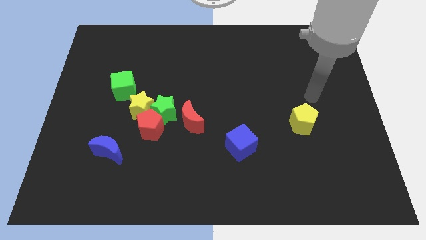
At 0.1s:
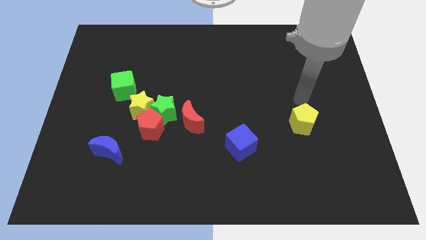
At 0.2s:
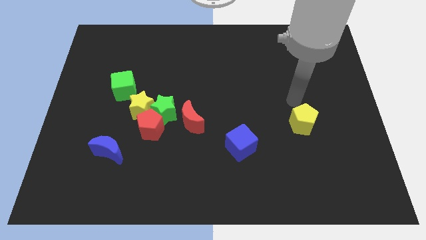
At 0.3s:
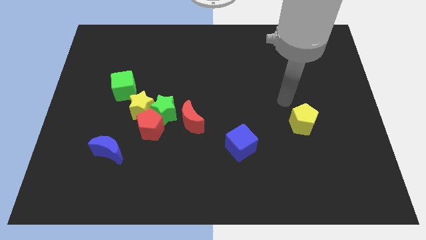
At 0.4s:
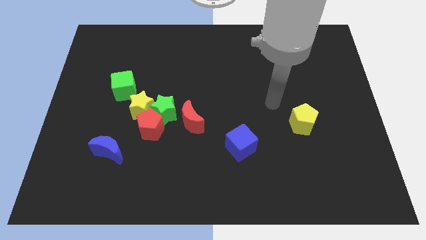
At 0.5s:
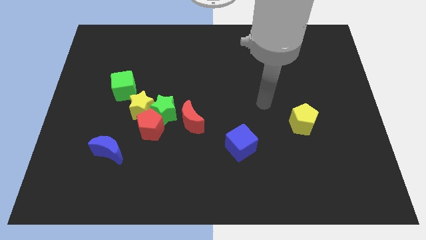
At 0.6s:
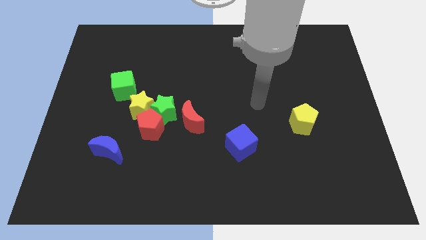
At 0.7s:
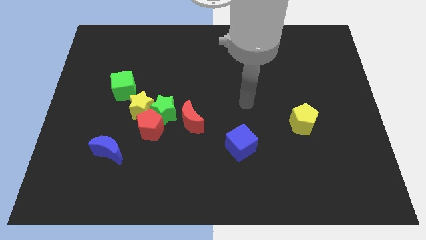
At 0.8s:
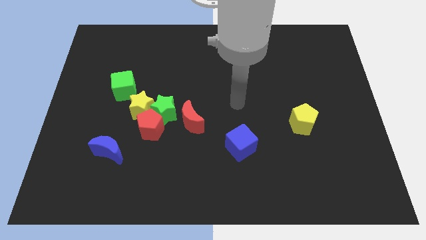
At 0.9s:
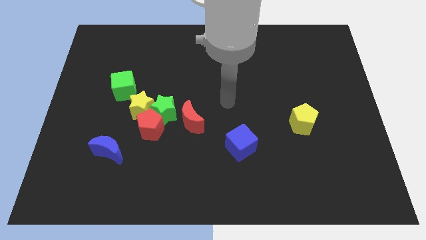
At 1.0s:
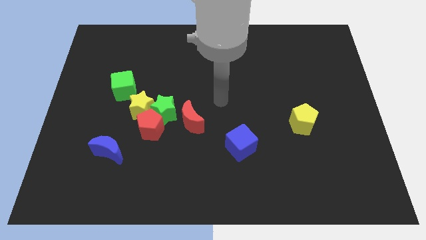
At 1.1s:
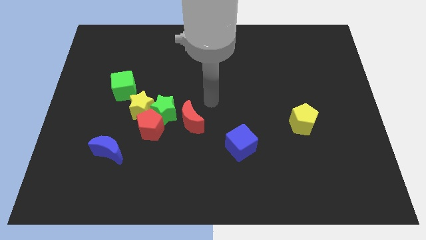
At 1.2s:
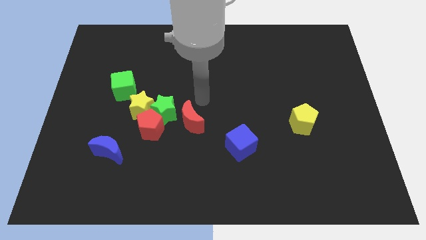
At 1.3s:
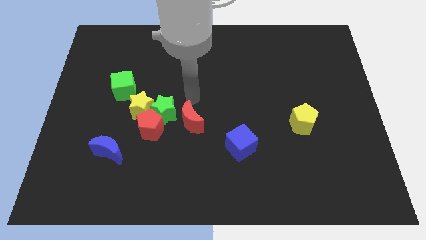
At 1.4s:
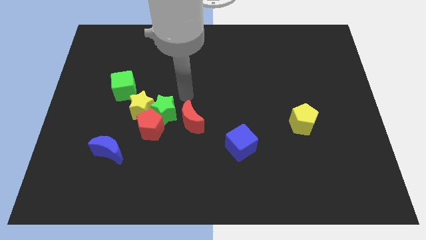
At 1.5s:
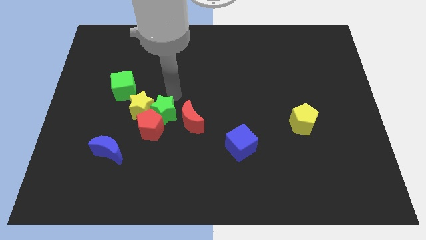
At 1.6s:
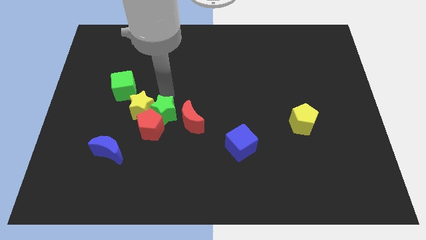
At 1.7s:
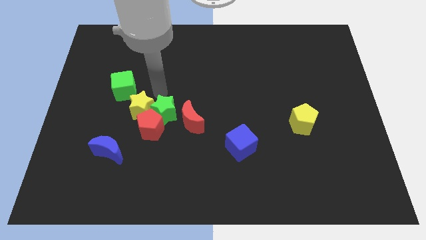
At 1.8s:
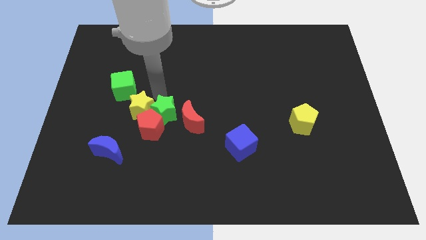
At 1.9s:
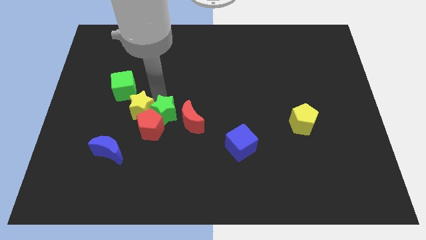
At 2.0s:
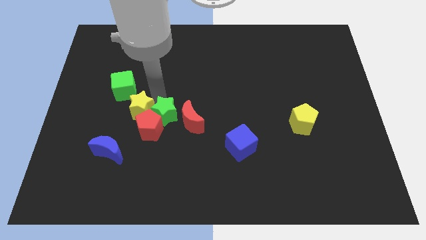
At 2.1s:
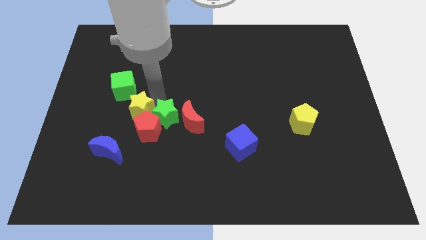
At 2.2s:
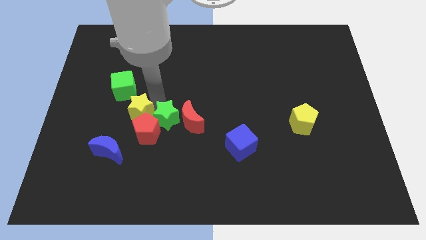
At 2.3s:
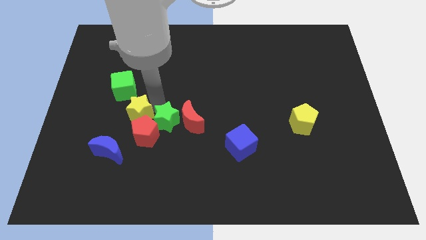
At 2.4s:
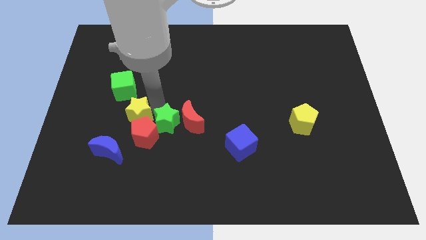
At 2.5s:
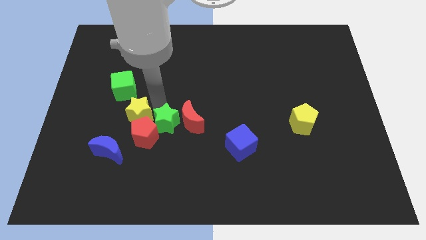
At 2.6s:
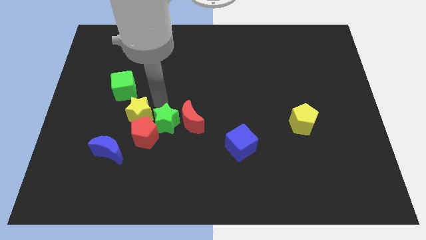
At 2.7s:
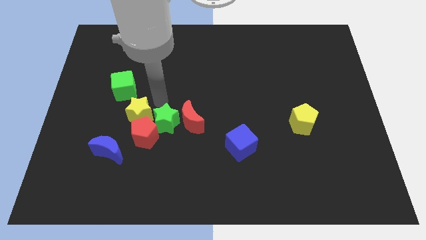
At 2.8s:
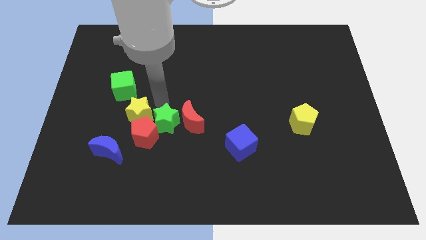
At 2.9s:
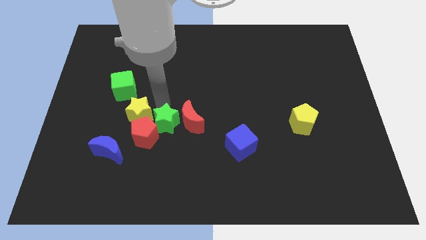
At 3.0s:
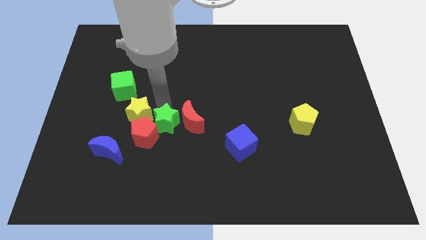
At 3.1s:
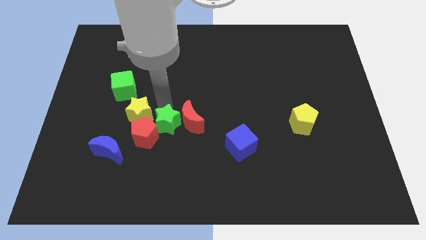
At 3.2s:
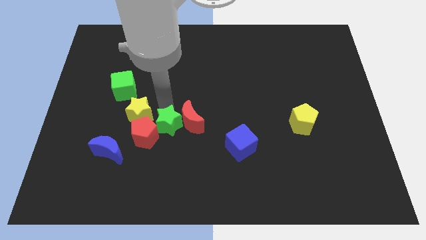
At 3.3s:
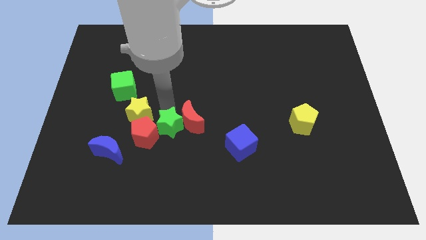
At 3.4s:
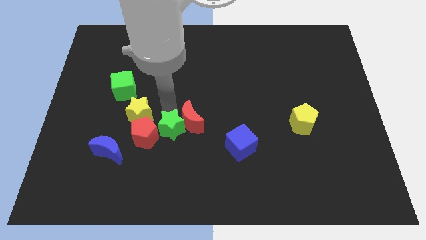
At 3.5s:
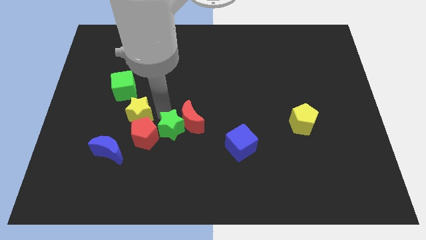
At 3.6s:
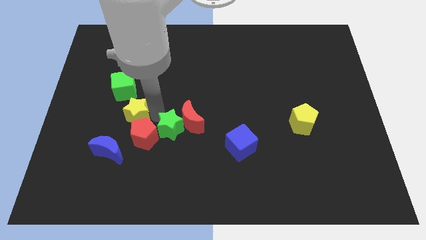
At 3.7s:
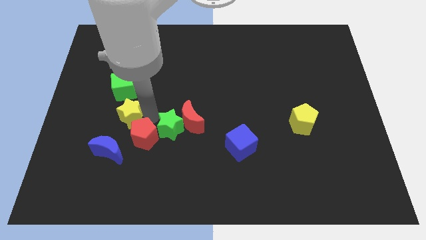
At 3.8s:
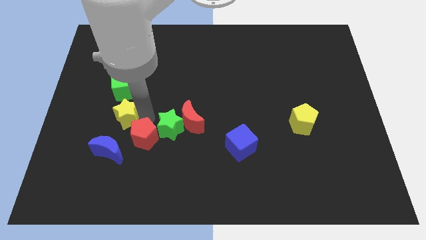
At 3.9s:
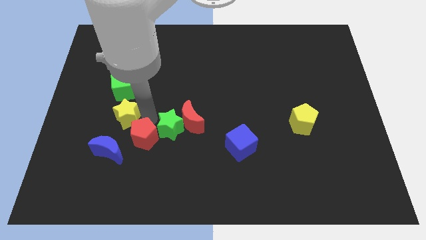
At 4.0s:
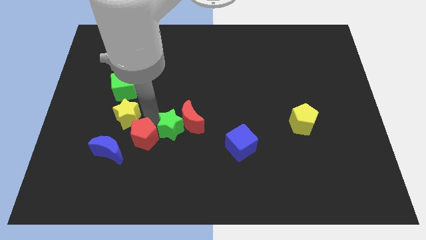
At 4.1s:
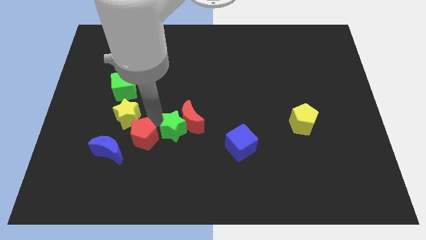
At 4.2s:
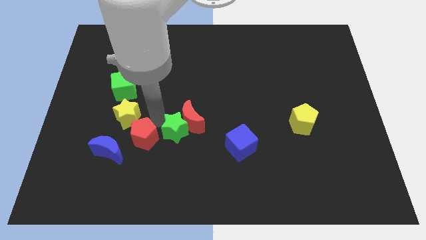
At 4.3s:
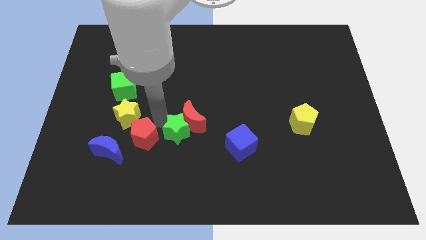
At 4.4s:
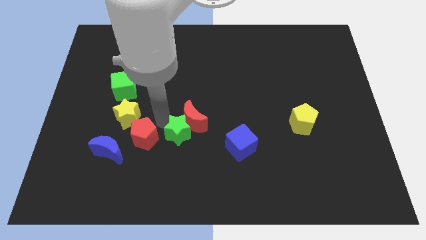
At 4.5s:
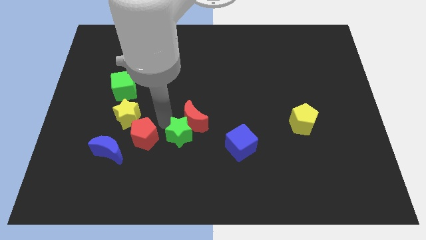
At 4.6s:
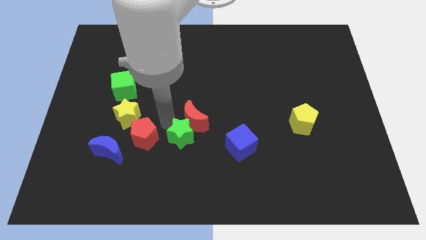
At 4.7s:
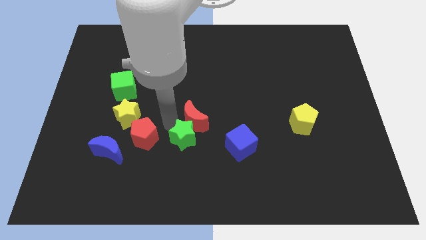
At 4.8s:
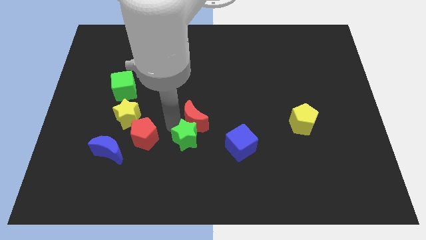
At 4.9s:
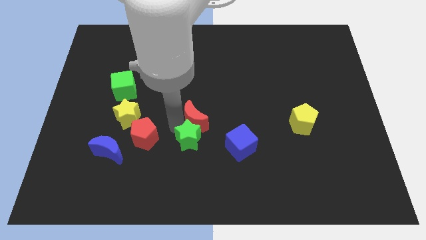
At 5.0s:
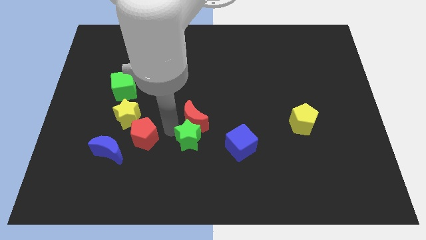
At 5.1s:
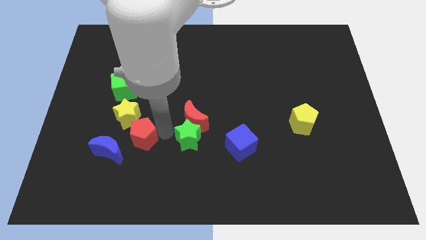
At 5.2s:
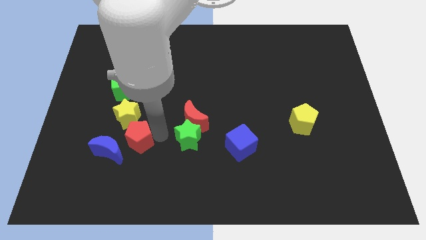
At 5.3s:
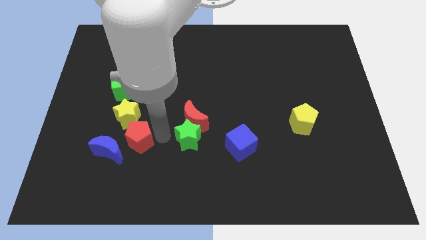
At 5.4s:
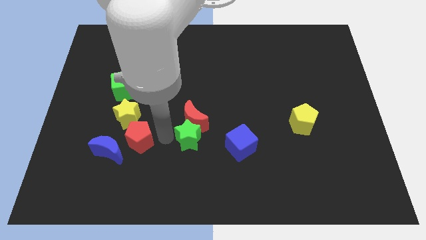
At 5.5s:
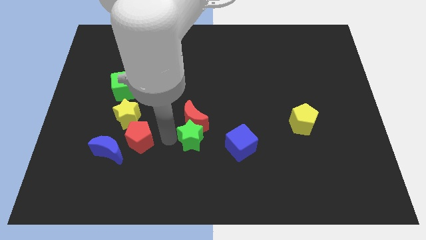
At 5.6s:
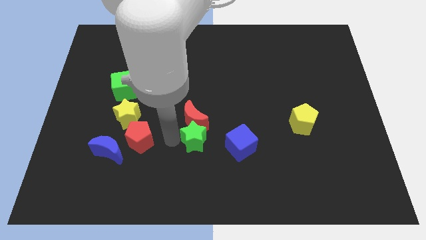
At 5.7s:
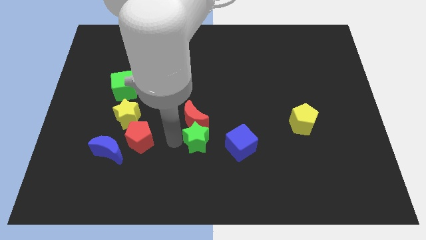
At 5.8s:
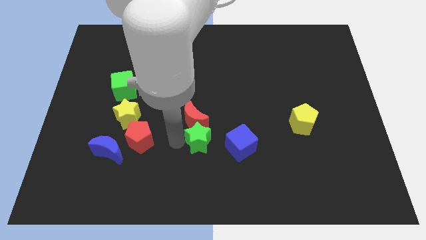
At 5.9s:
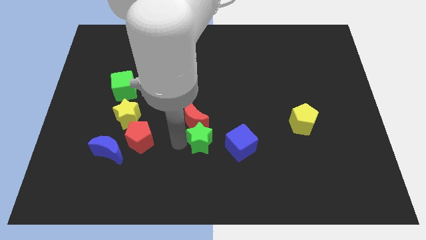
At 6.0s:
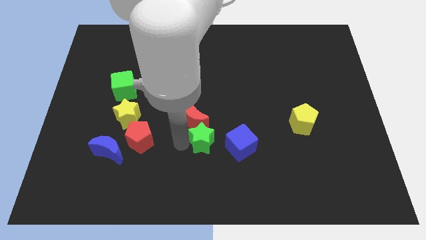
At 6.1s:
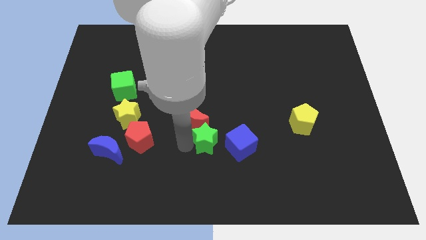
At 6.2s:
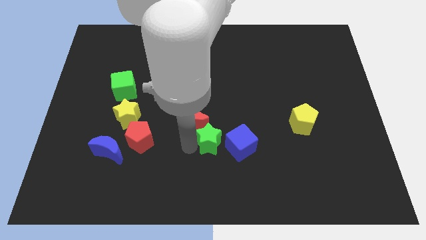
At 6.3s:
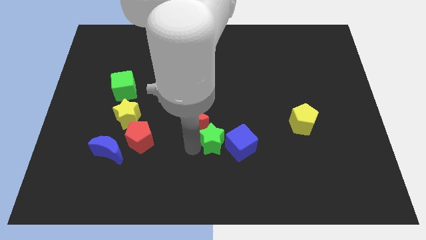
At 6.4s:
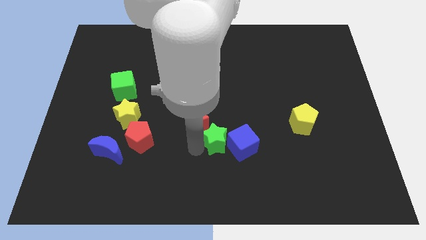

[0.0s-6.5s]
slide the green star towards the blue cube

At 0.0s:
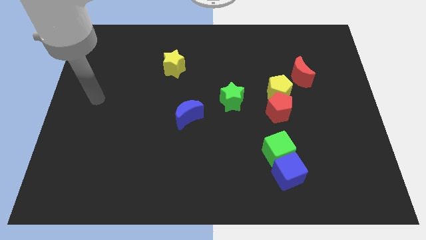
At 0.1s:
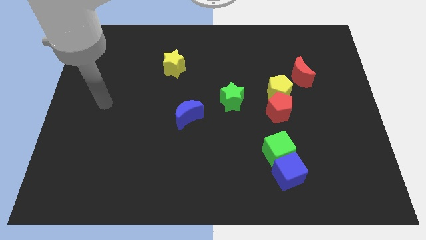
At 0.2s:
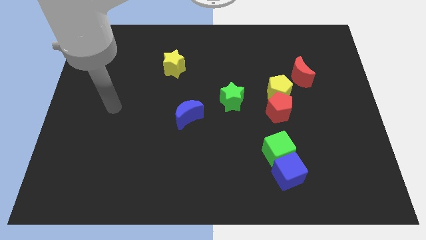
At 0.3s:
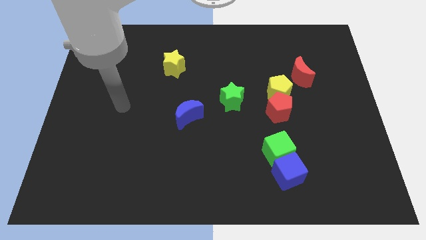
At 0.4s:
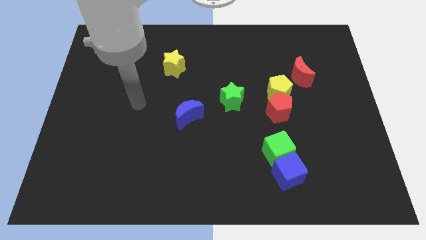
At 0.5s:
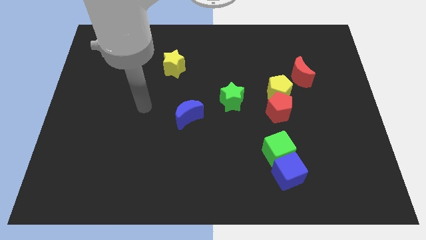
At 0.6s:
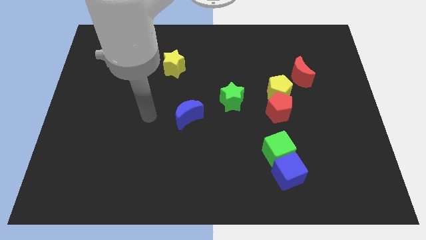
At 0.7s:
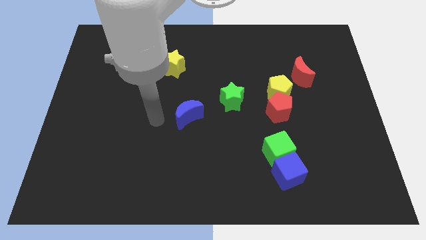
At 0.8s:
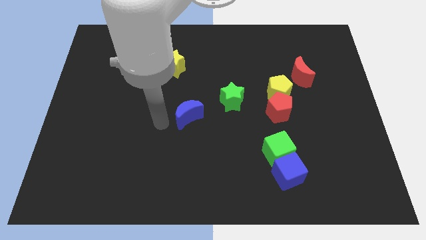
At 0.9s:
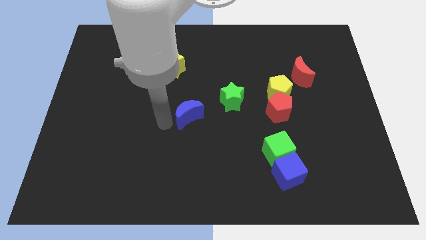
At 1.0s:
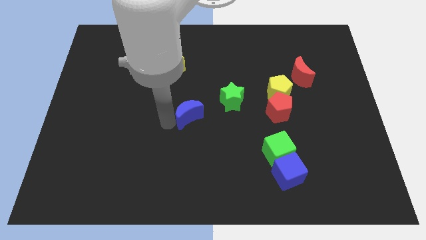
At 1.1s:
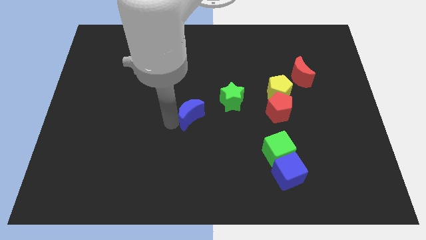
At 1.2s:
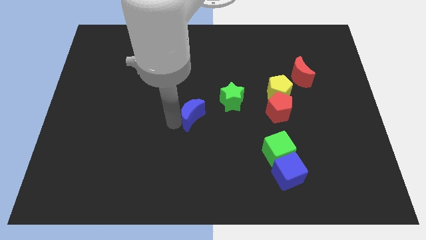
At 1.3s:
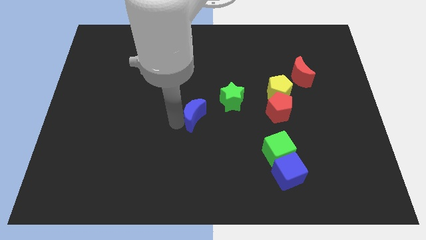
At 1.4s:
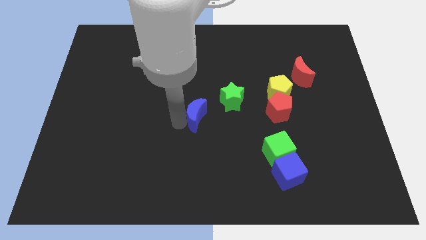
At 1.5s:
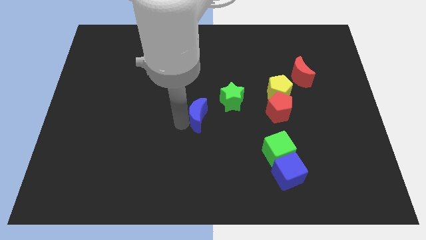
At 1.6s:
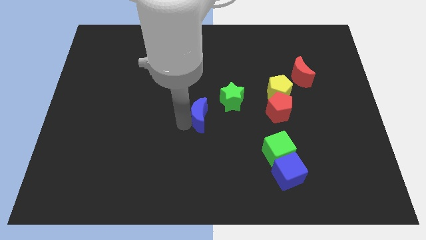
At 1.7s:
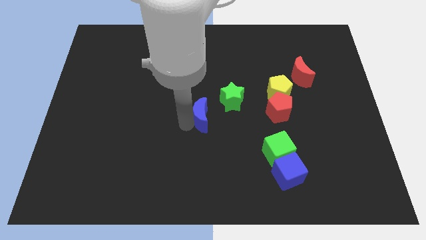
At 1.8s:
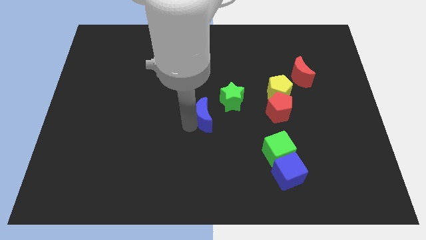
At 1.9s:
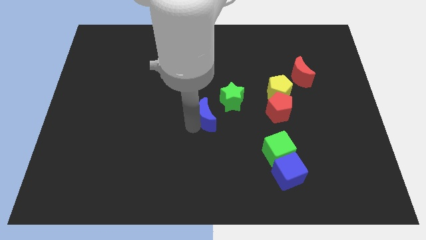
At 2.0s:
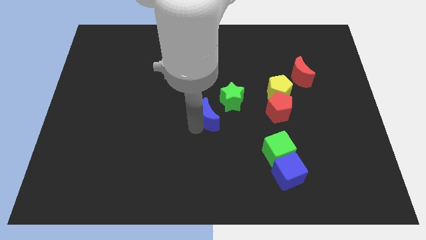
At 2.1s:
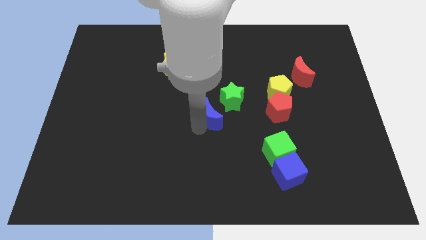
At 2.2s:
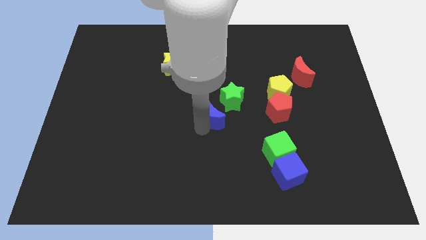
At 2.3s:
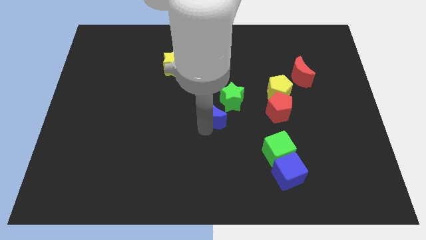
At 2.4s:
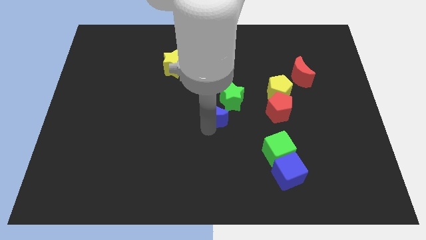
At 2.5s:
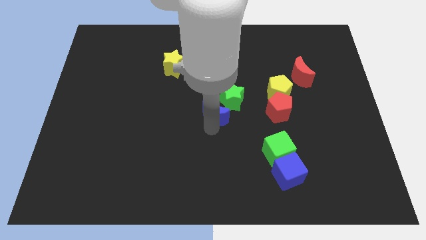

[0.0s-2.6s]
slide the blue moon to the green star
